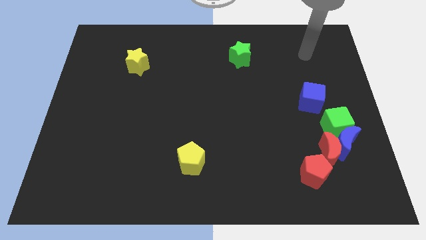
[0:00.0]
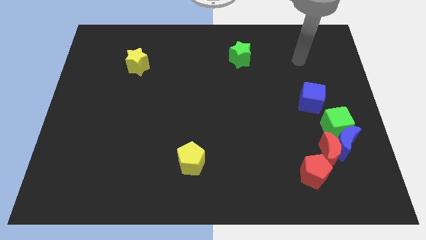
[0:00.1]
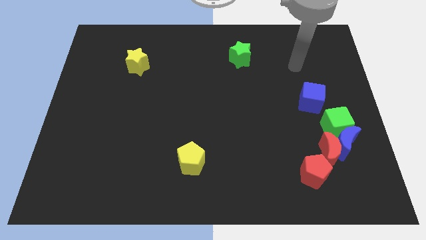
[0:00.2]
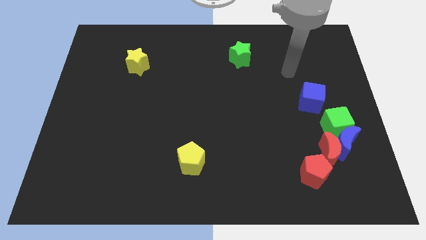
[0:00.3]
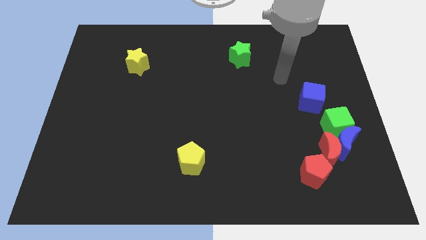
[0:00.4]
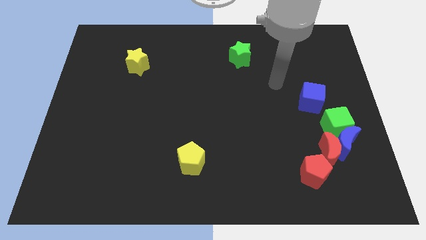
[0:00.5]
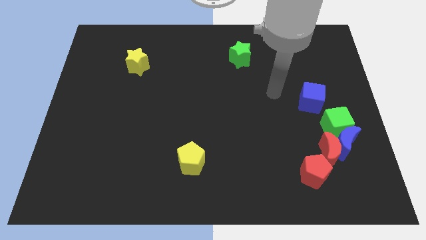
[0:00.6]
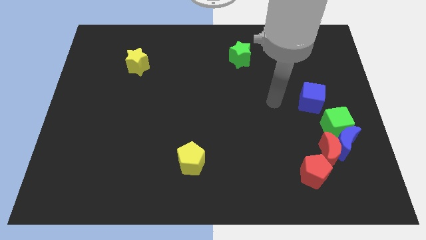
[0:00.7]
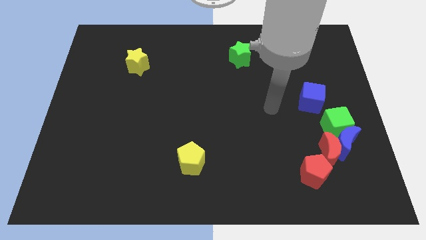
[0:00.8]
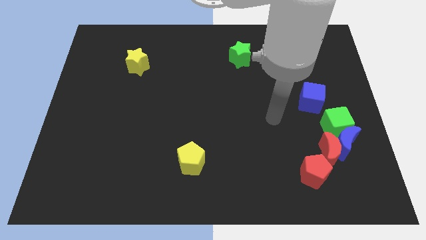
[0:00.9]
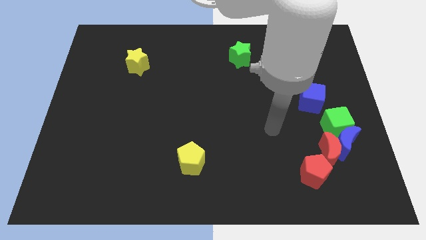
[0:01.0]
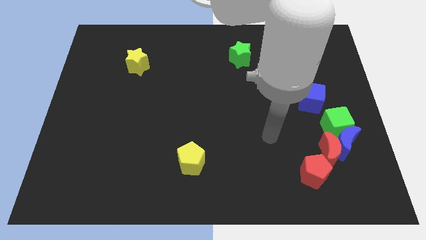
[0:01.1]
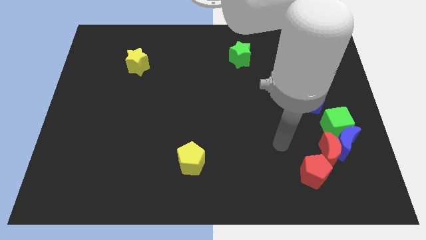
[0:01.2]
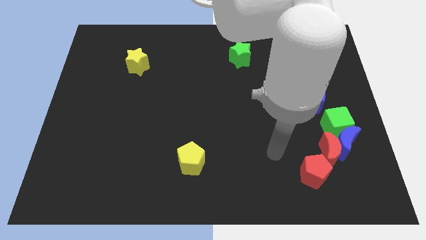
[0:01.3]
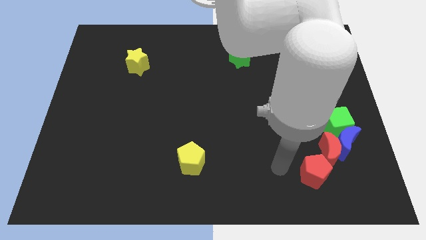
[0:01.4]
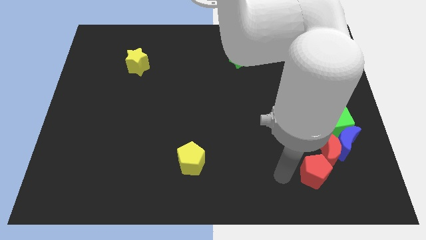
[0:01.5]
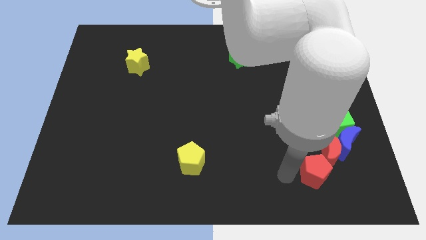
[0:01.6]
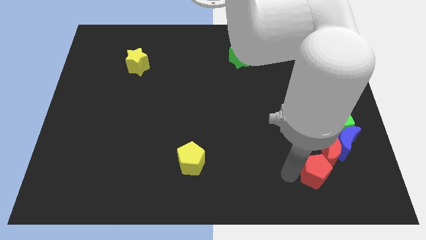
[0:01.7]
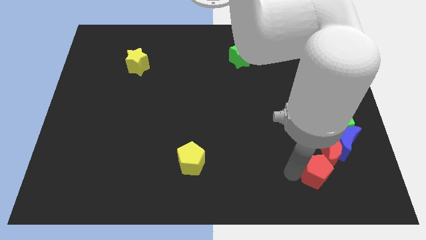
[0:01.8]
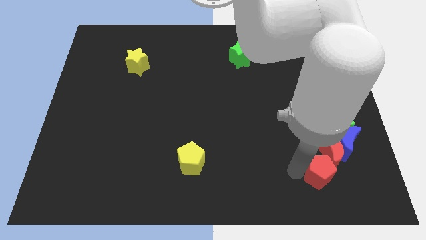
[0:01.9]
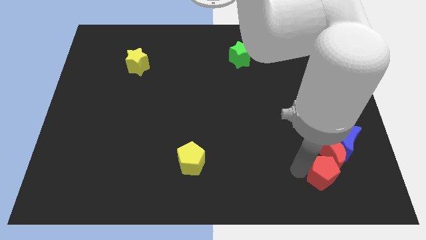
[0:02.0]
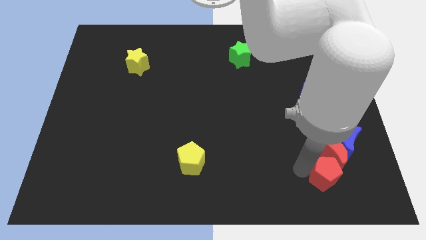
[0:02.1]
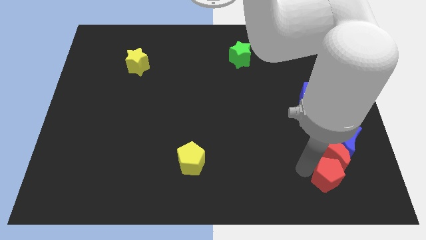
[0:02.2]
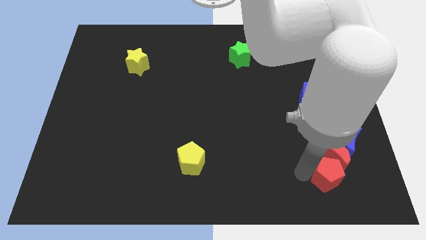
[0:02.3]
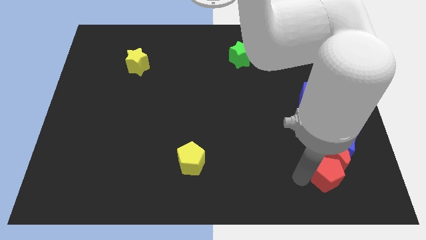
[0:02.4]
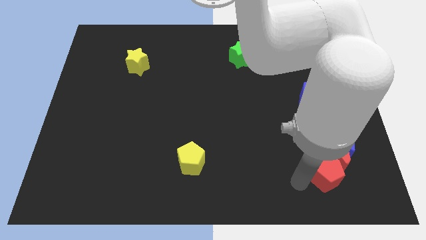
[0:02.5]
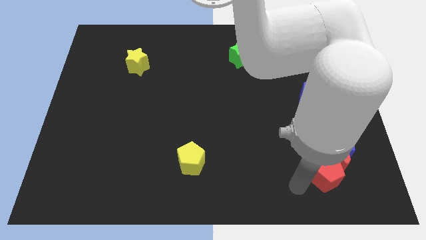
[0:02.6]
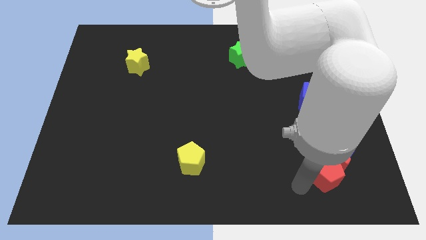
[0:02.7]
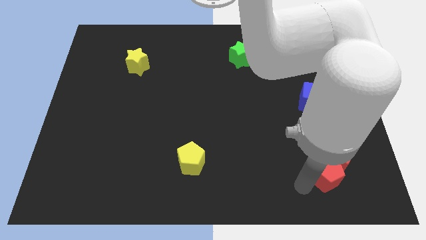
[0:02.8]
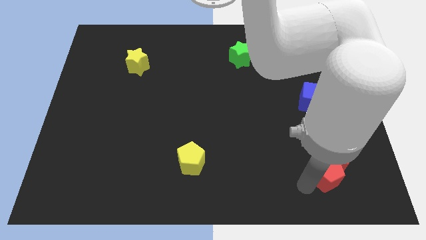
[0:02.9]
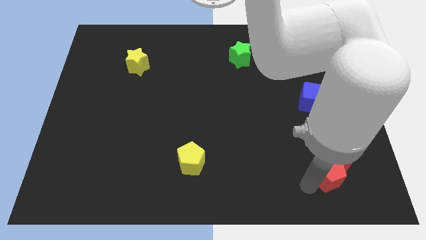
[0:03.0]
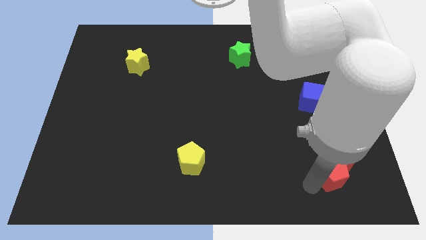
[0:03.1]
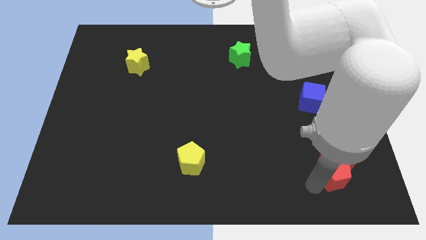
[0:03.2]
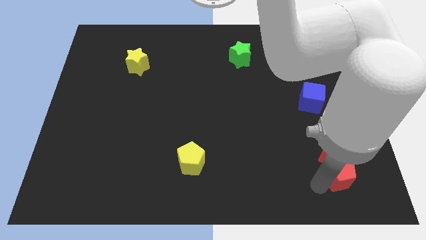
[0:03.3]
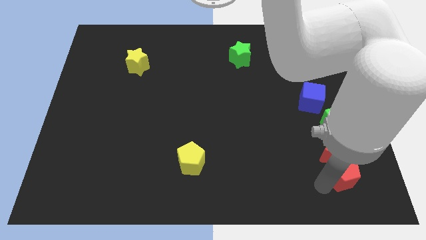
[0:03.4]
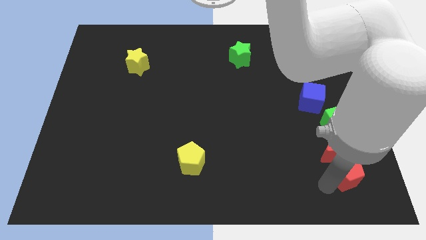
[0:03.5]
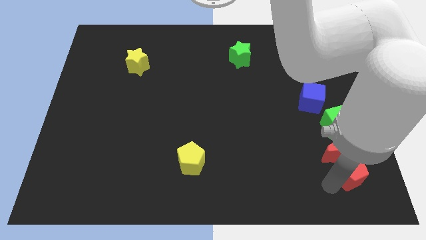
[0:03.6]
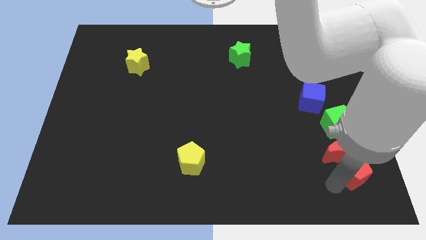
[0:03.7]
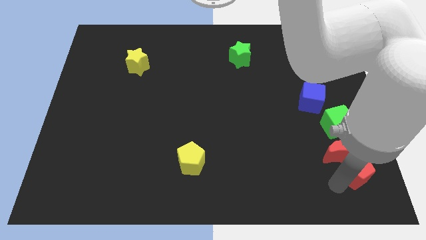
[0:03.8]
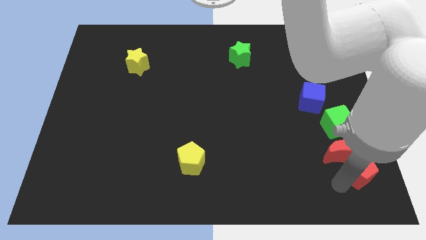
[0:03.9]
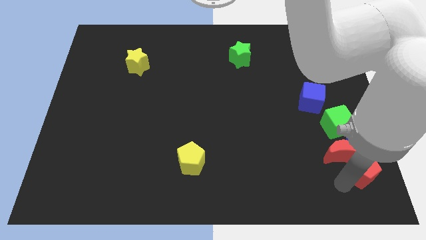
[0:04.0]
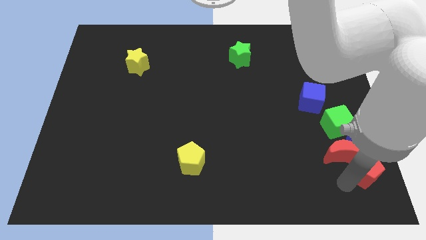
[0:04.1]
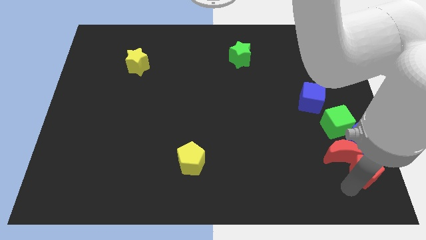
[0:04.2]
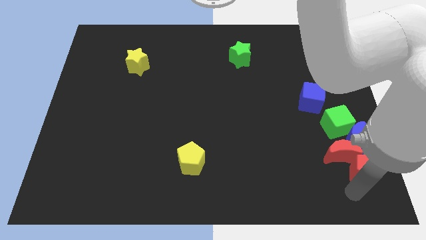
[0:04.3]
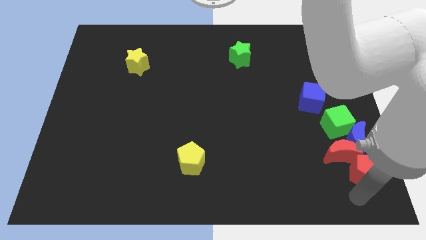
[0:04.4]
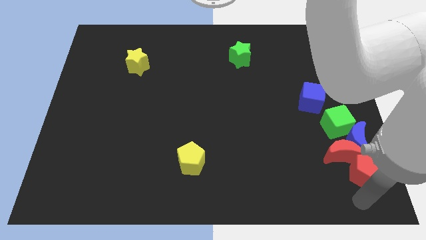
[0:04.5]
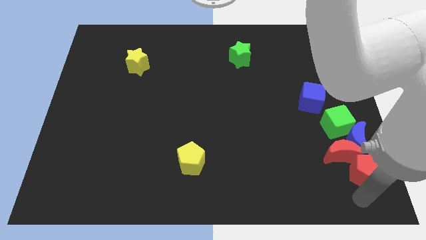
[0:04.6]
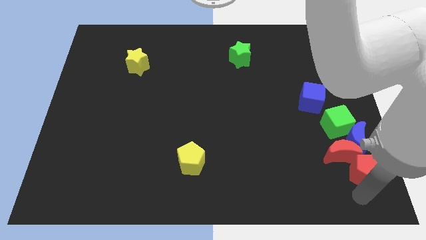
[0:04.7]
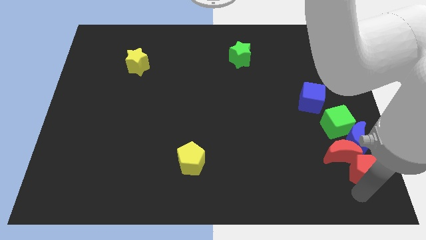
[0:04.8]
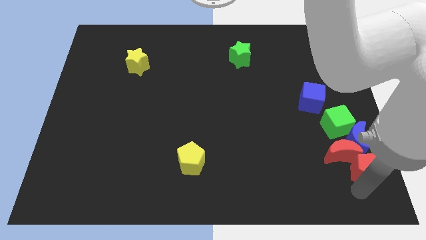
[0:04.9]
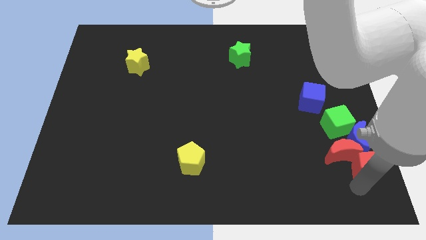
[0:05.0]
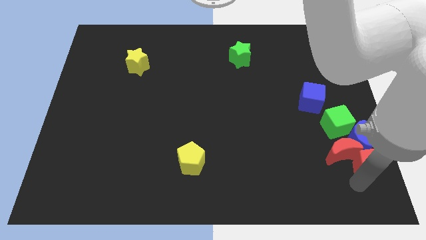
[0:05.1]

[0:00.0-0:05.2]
slide the red pentagon to the blue moon
